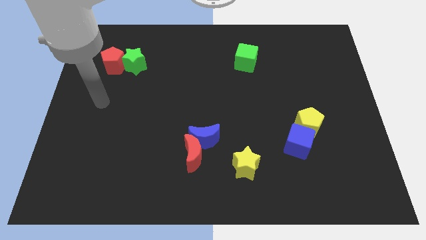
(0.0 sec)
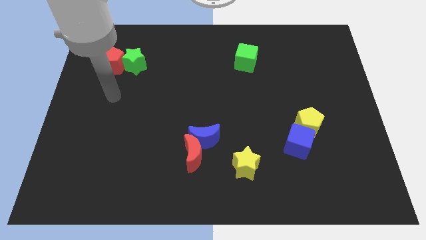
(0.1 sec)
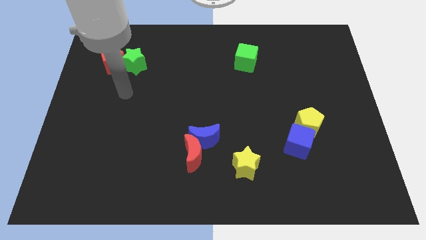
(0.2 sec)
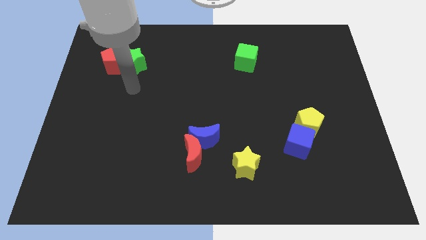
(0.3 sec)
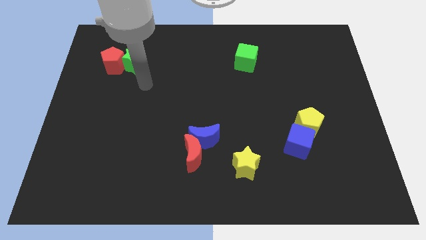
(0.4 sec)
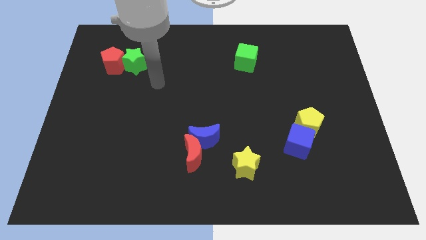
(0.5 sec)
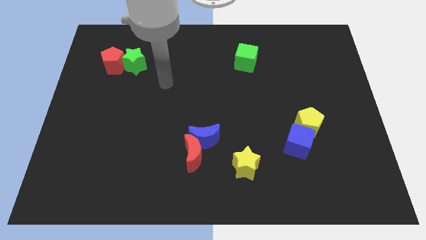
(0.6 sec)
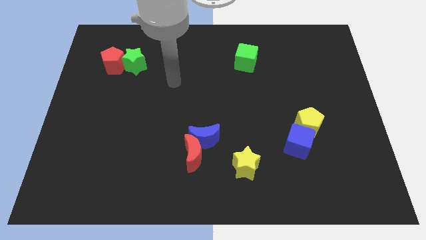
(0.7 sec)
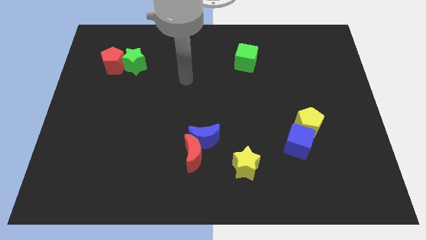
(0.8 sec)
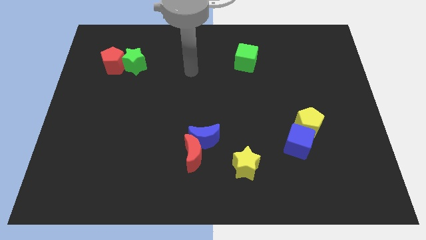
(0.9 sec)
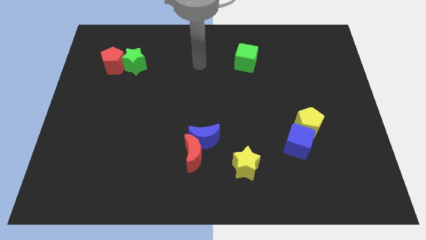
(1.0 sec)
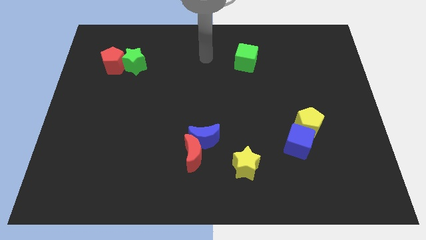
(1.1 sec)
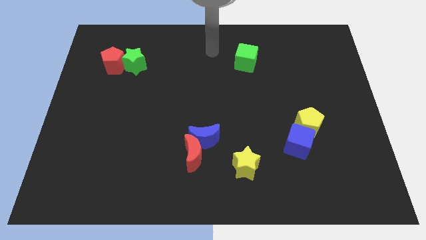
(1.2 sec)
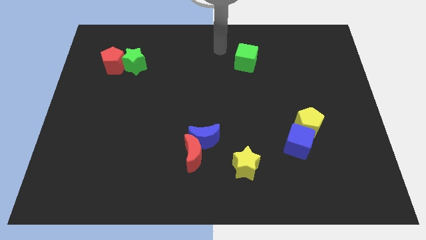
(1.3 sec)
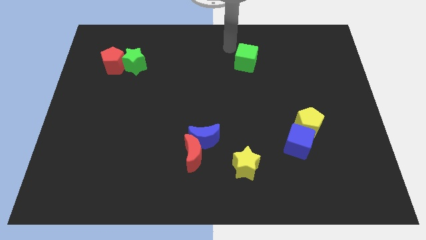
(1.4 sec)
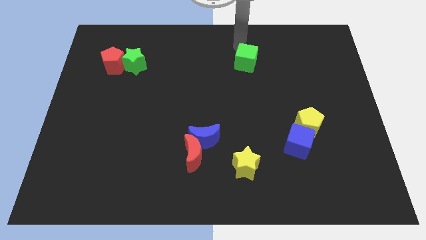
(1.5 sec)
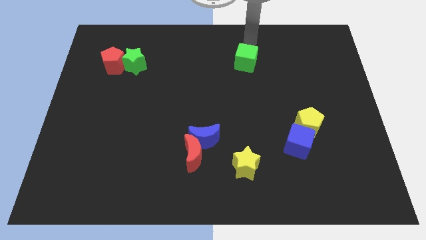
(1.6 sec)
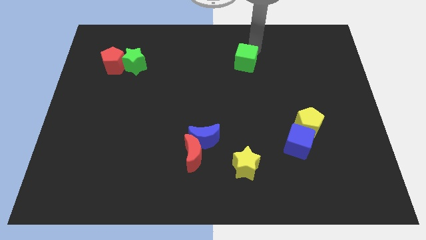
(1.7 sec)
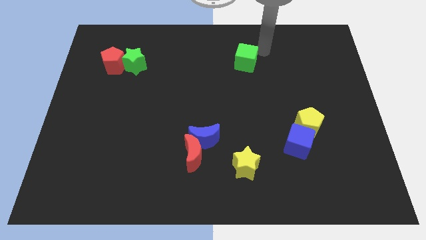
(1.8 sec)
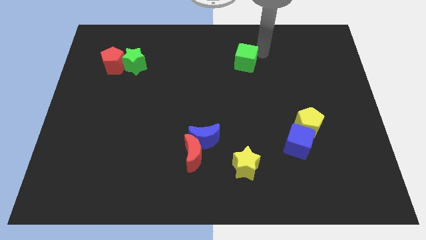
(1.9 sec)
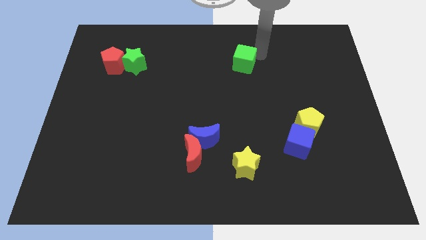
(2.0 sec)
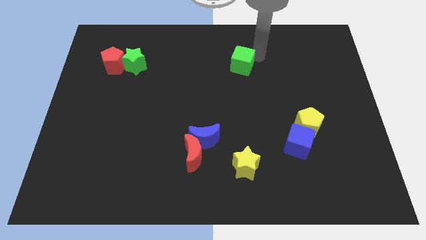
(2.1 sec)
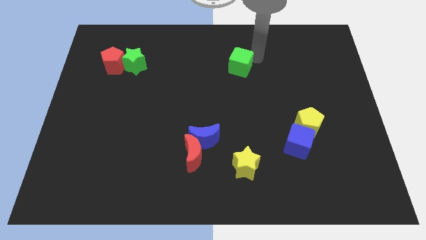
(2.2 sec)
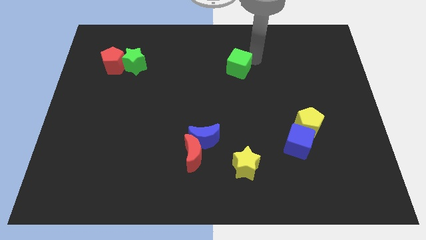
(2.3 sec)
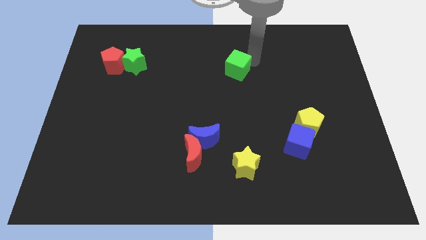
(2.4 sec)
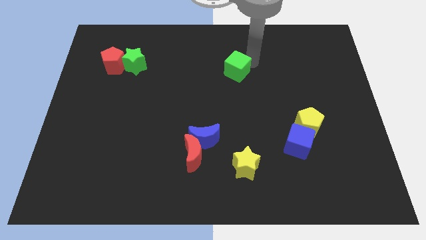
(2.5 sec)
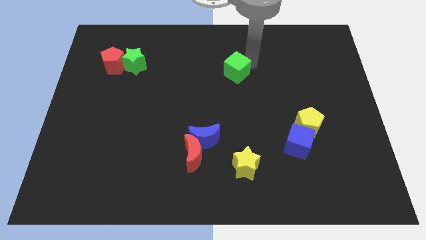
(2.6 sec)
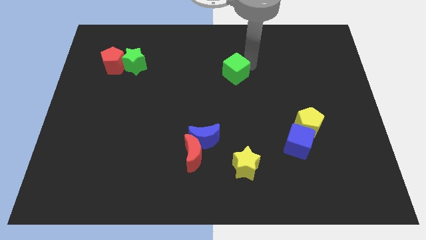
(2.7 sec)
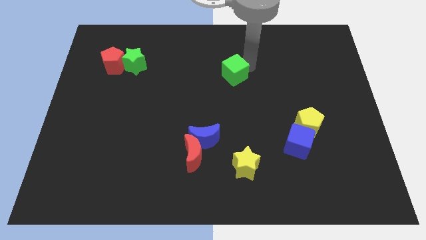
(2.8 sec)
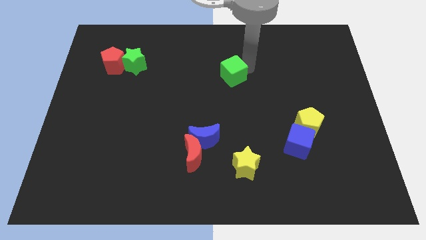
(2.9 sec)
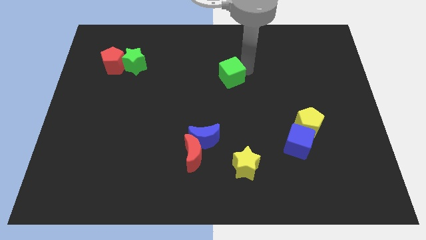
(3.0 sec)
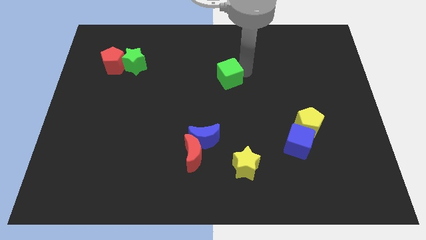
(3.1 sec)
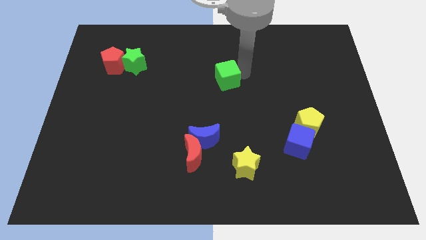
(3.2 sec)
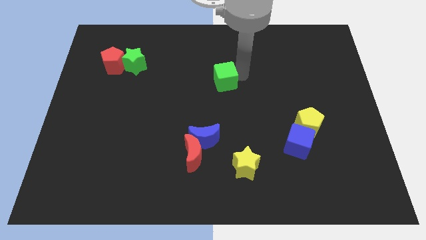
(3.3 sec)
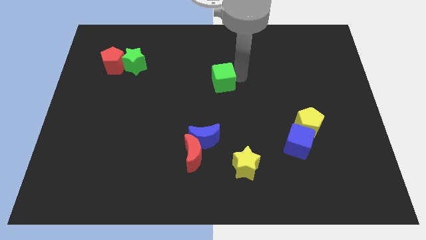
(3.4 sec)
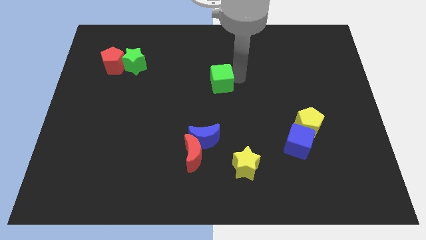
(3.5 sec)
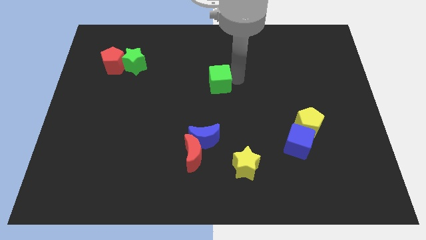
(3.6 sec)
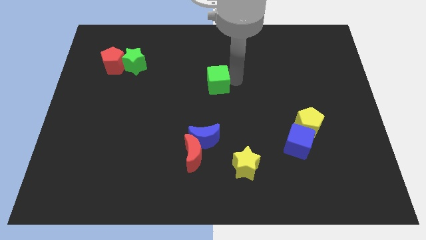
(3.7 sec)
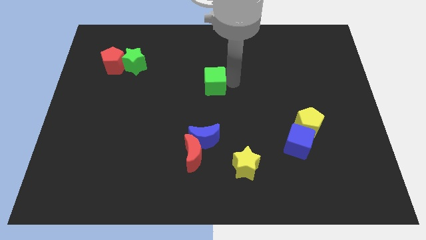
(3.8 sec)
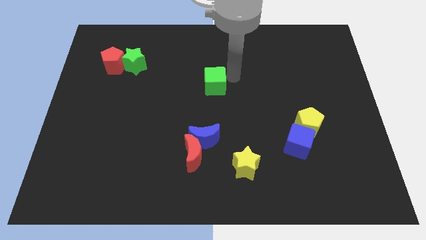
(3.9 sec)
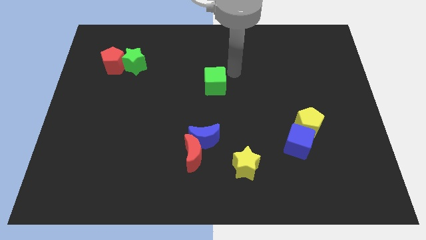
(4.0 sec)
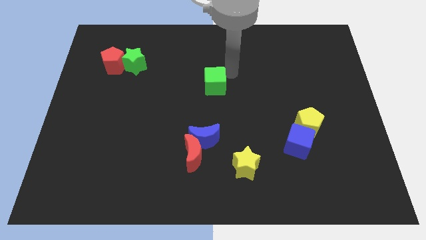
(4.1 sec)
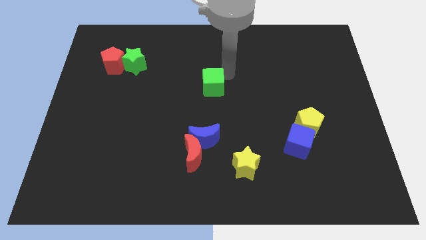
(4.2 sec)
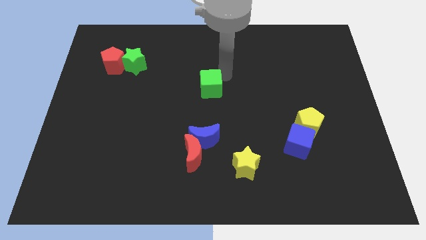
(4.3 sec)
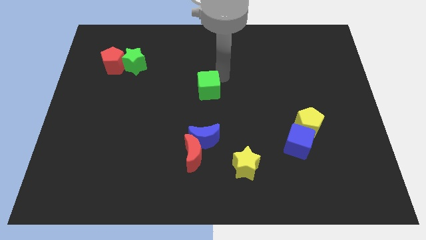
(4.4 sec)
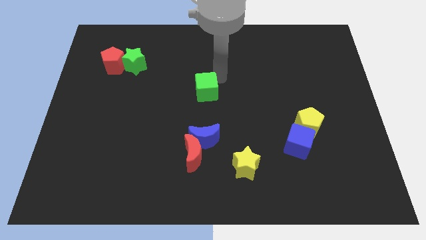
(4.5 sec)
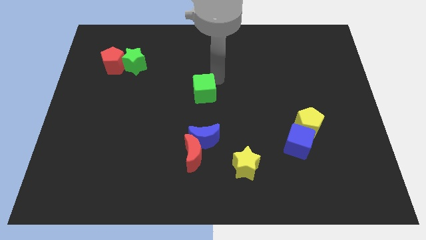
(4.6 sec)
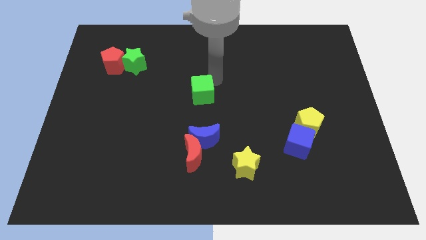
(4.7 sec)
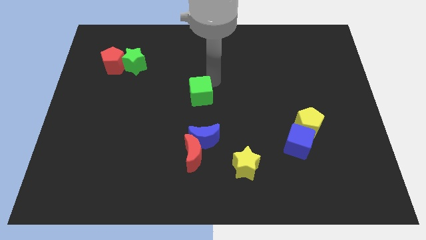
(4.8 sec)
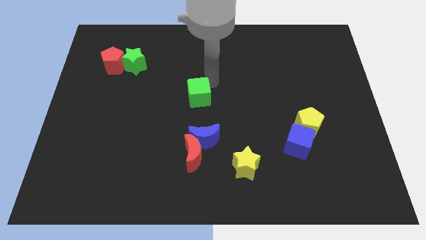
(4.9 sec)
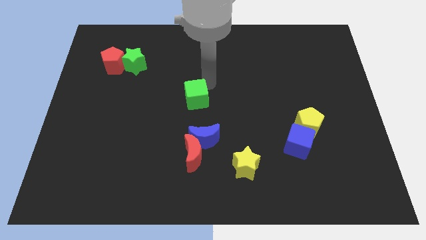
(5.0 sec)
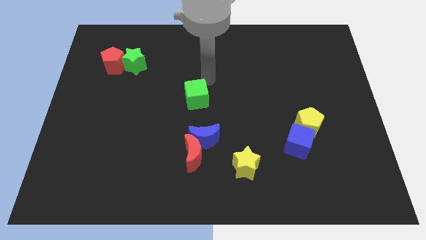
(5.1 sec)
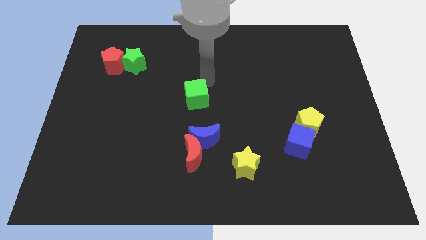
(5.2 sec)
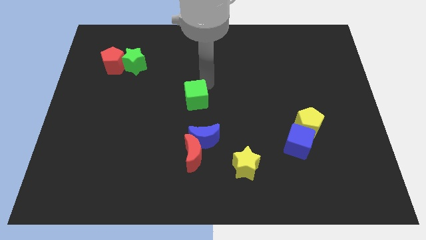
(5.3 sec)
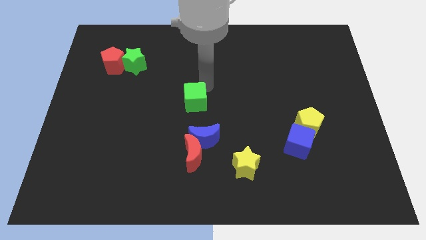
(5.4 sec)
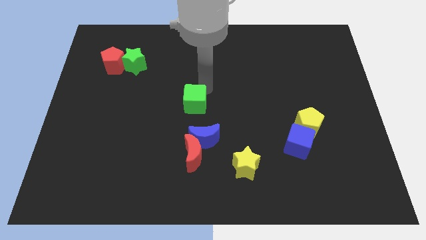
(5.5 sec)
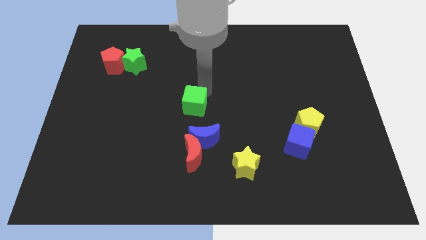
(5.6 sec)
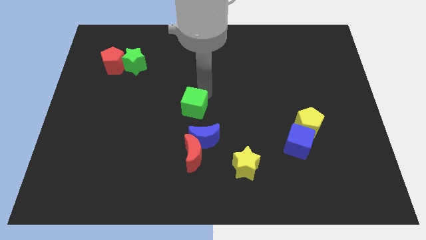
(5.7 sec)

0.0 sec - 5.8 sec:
slide the green cube to the top left of the blue moon
